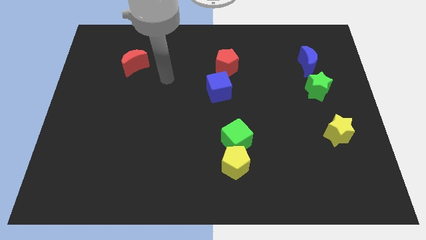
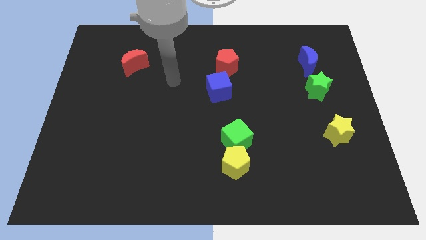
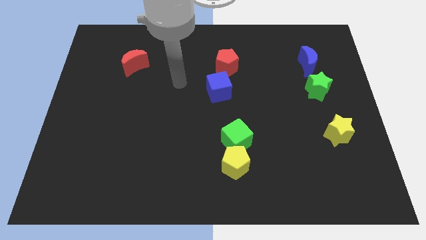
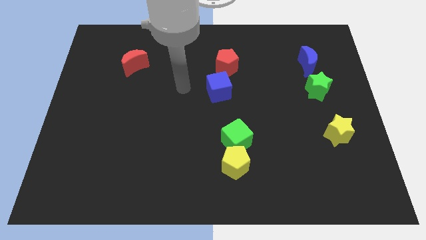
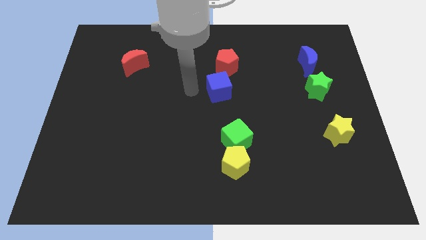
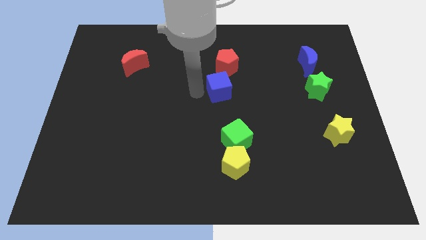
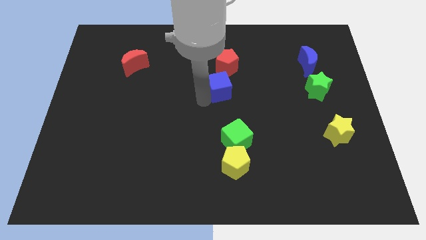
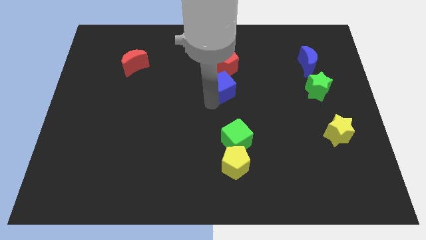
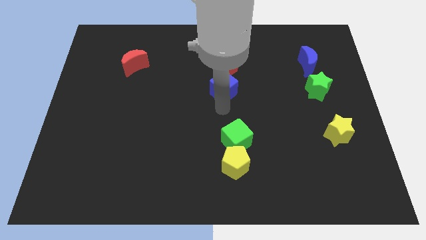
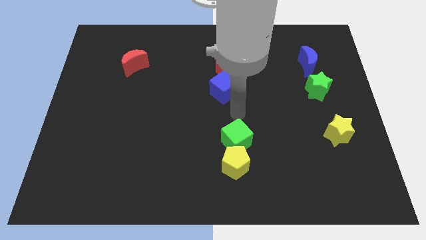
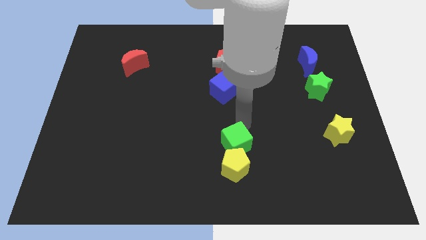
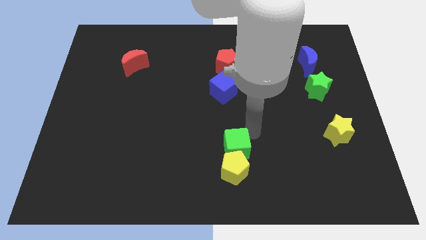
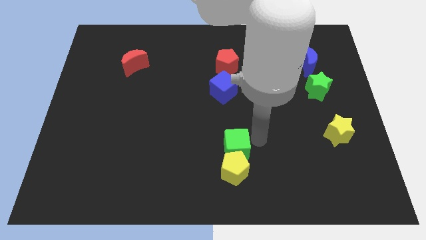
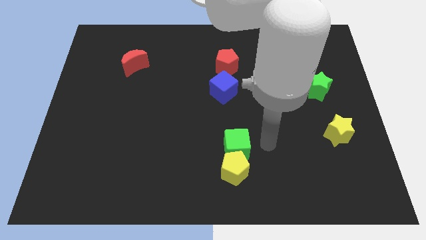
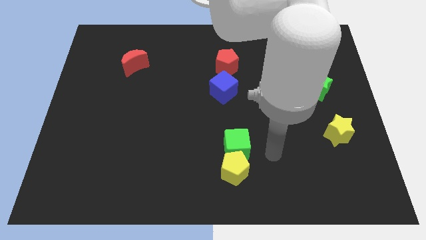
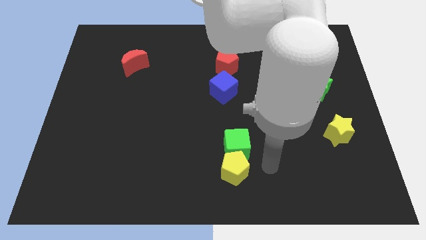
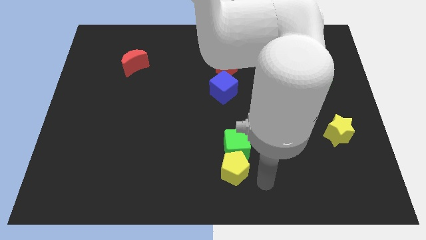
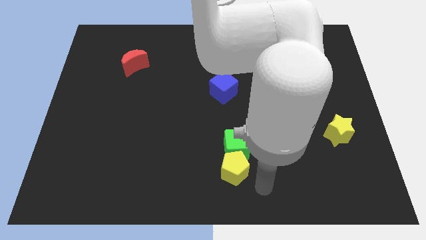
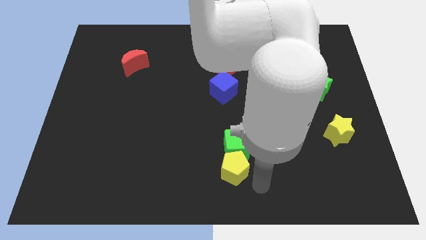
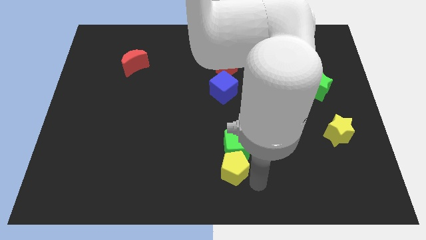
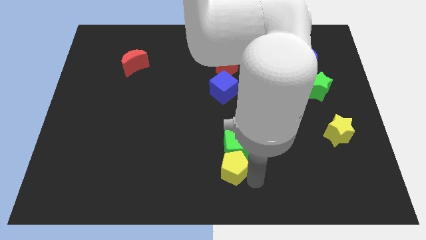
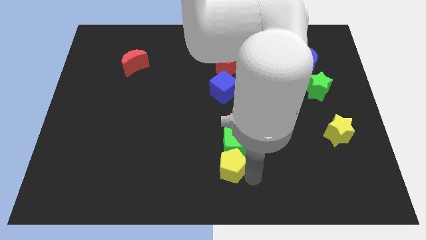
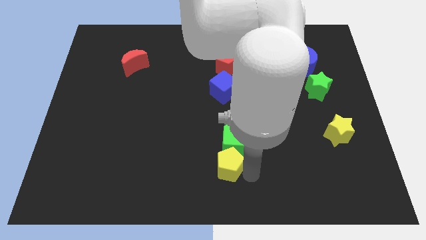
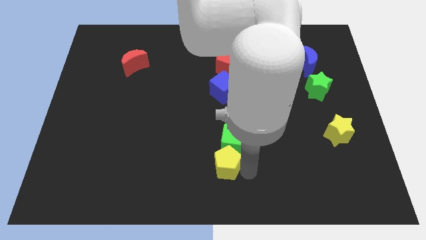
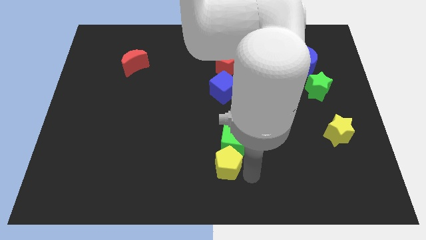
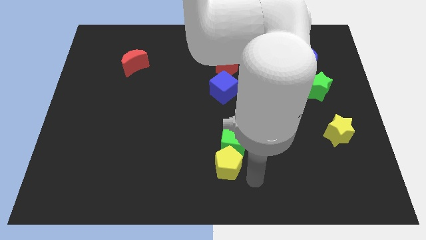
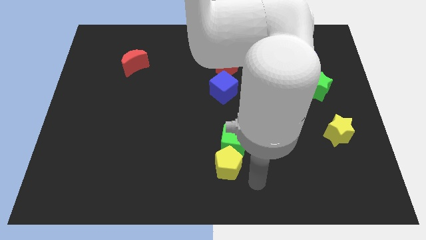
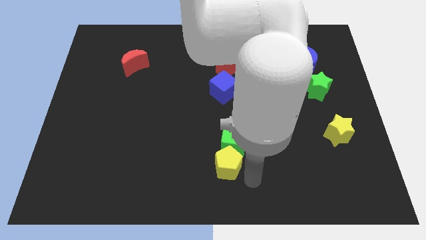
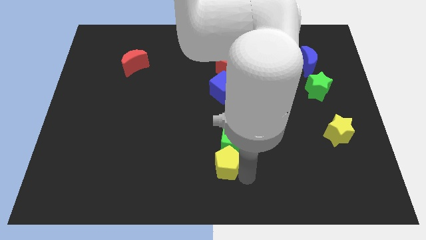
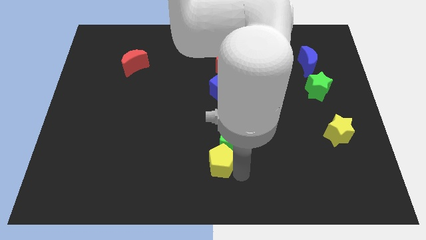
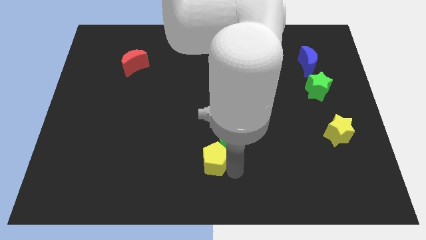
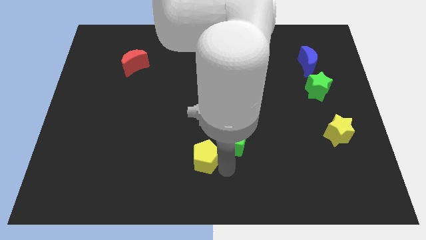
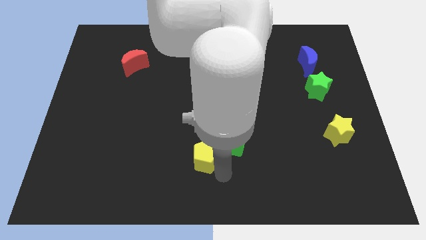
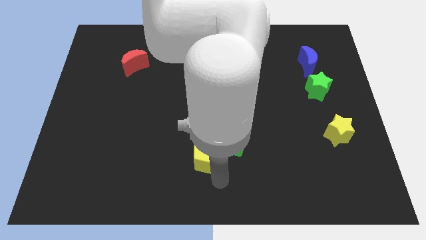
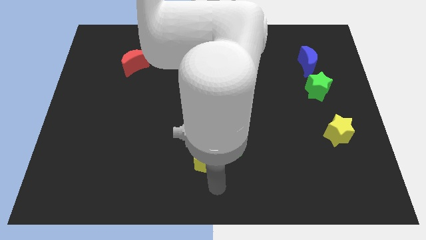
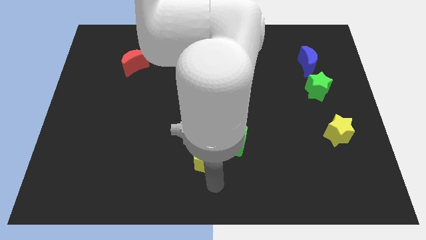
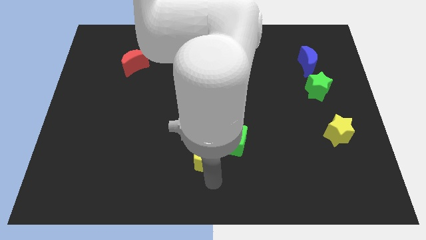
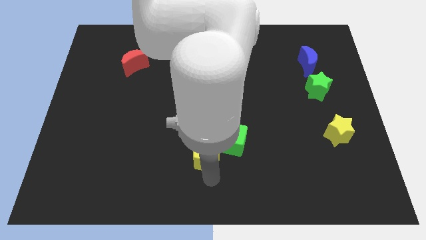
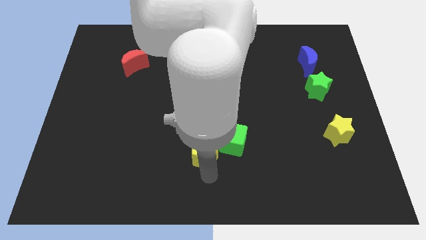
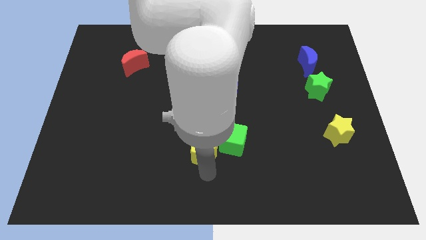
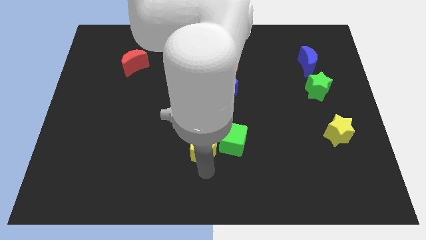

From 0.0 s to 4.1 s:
push the yellow pentagon up and left diagonally a little bit

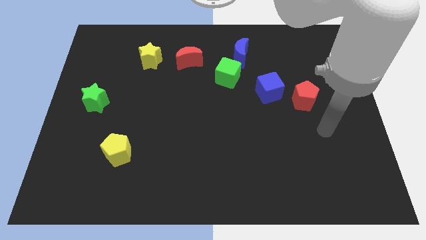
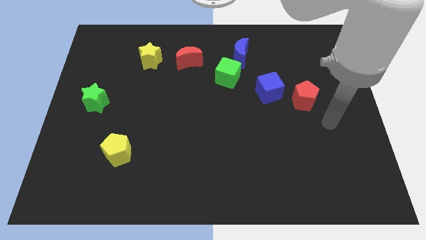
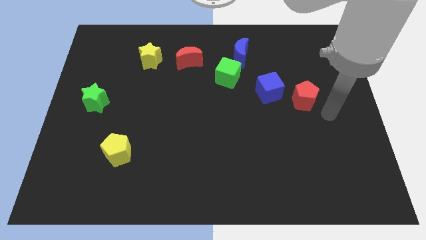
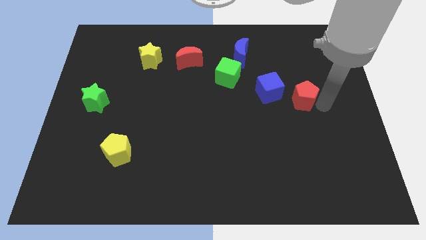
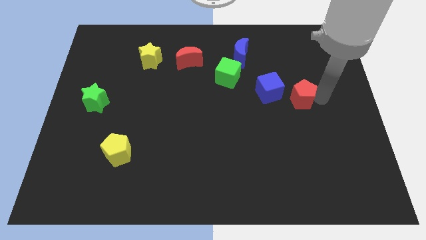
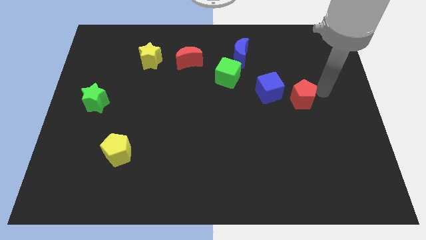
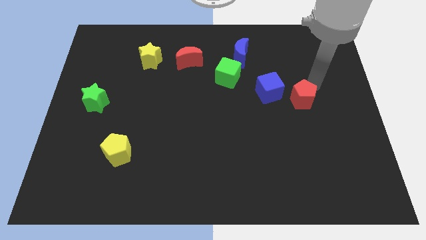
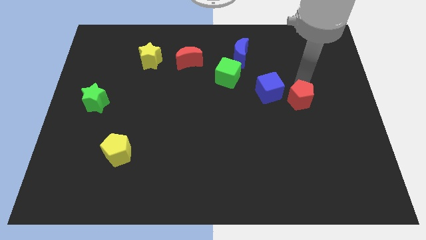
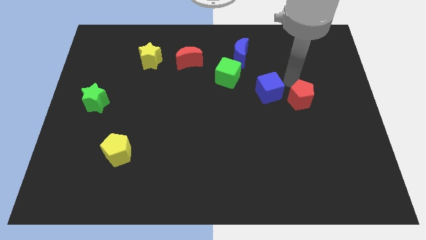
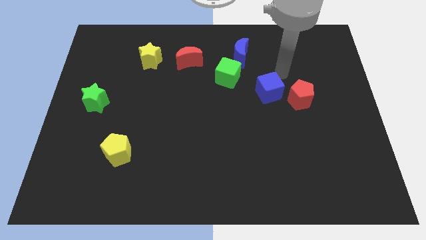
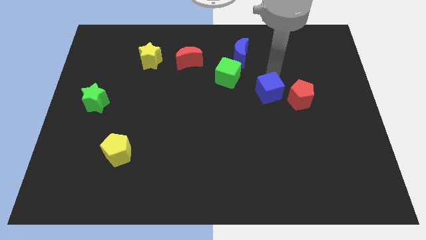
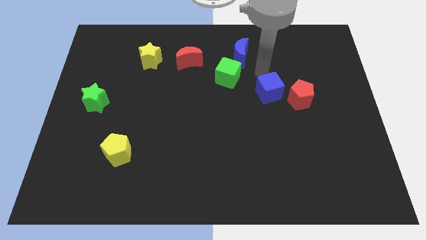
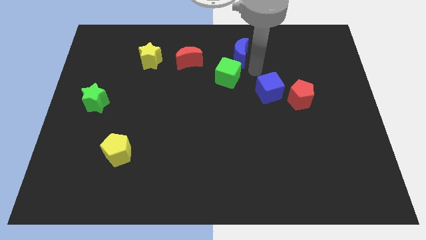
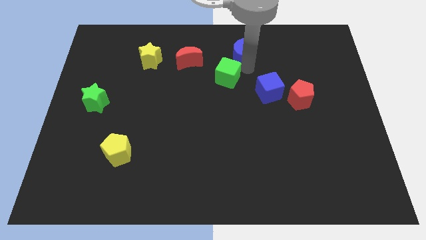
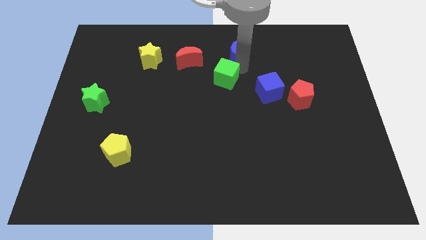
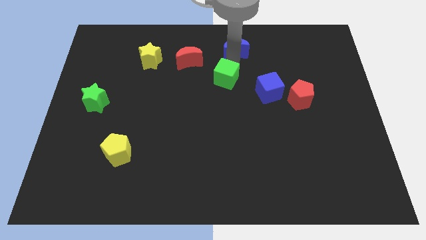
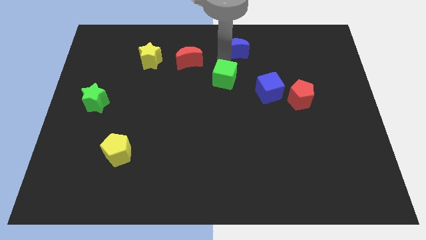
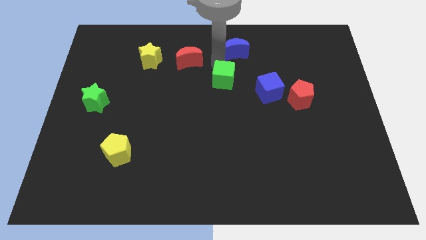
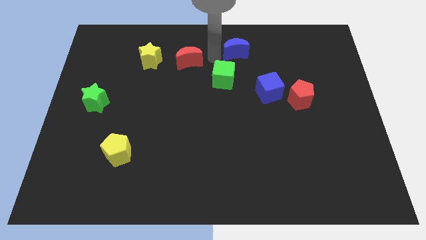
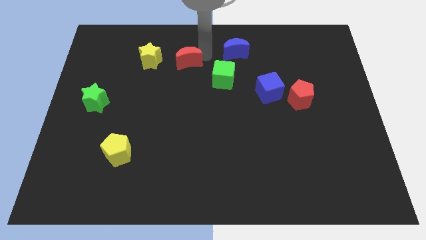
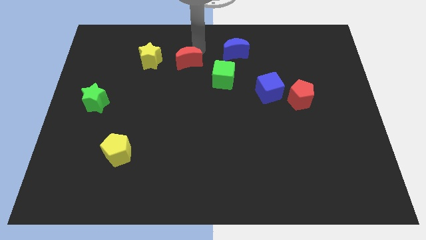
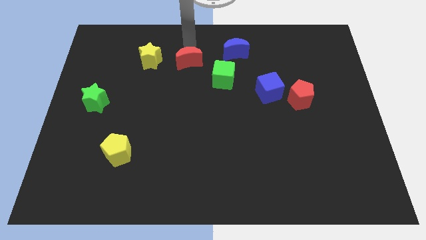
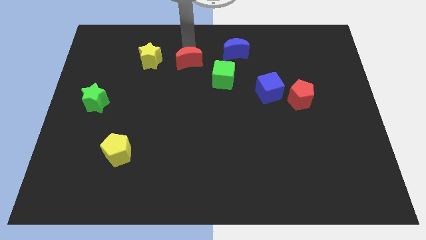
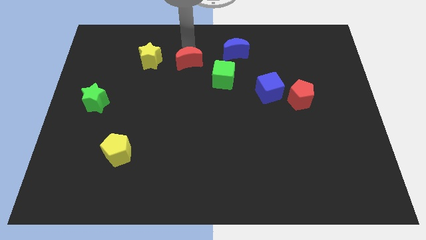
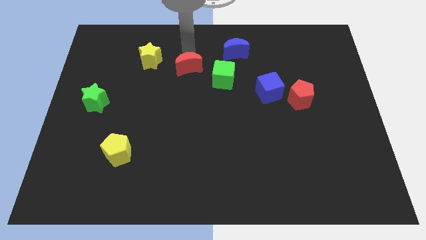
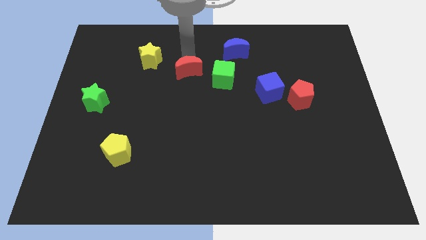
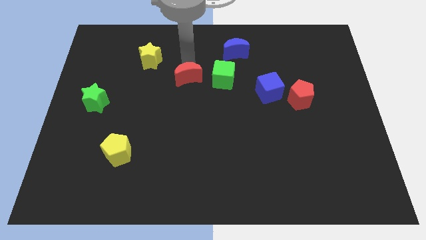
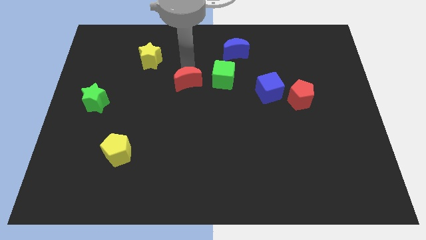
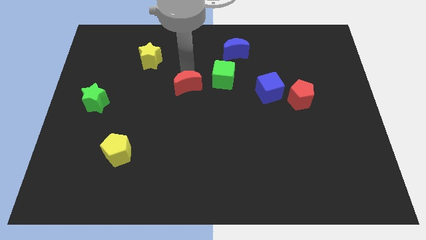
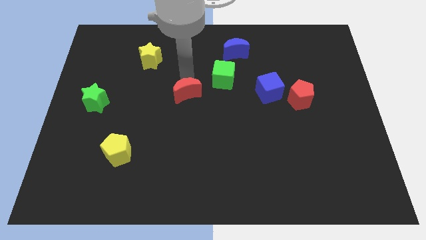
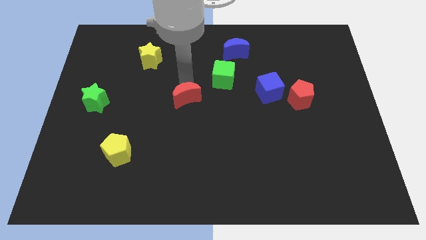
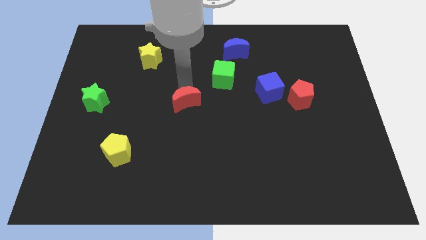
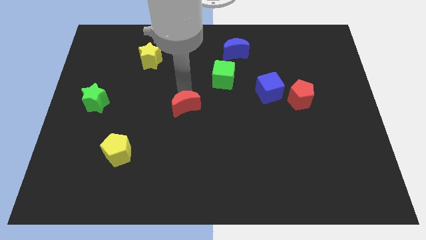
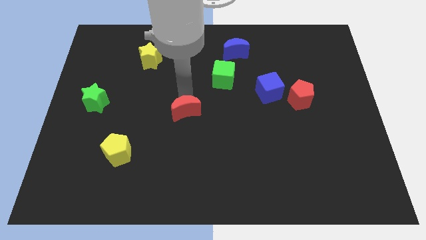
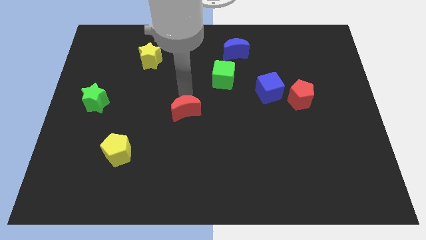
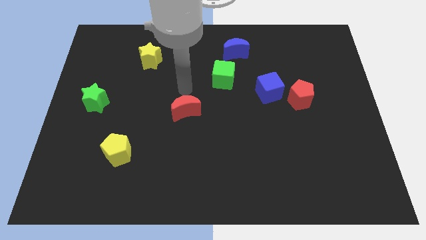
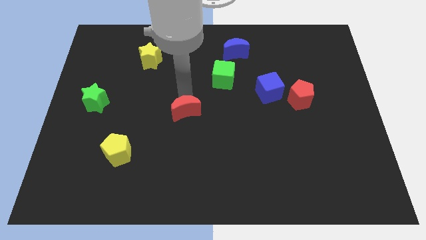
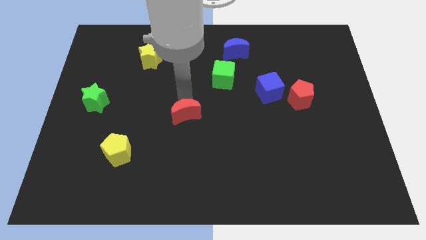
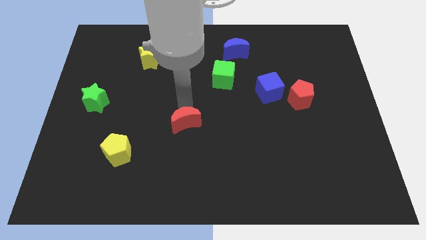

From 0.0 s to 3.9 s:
push the red moon downwards

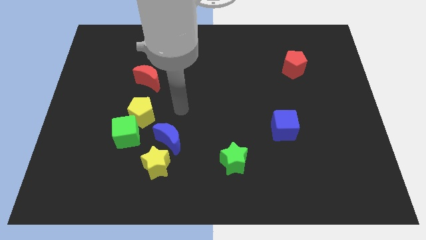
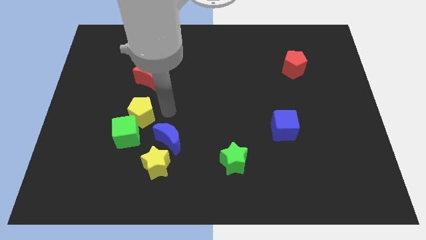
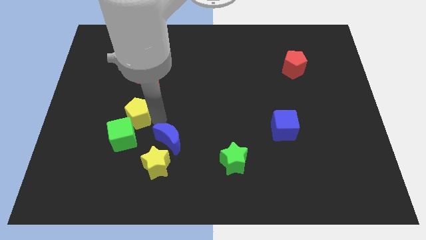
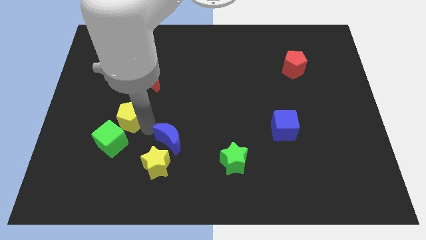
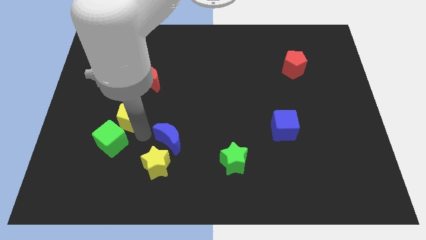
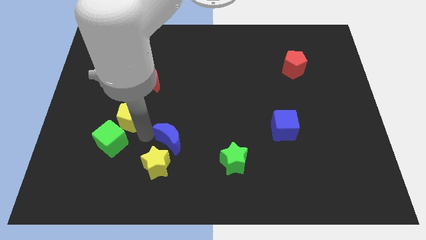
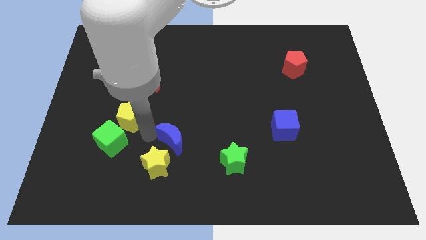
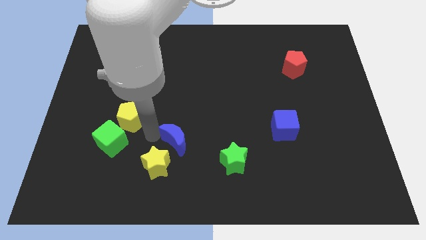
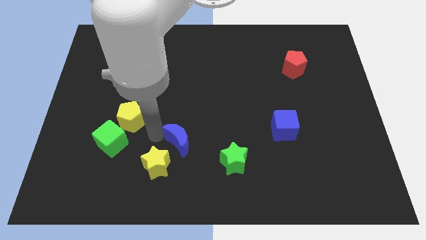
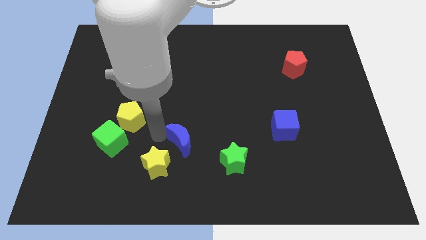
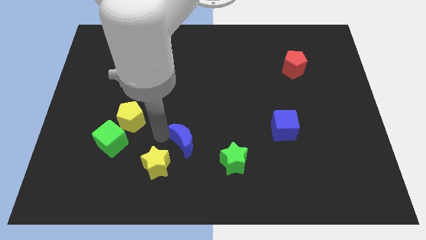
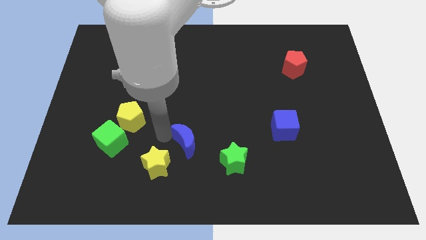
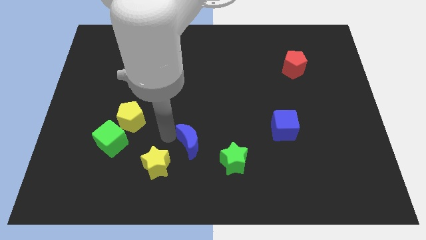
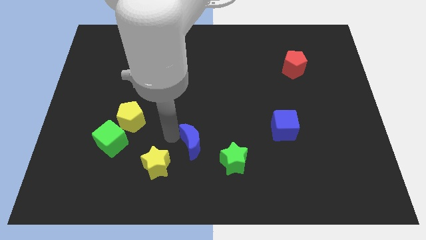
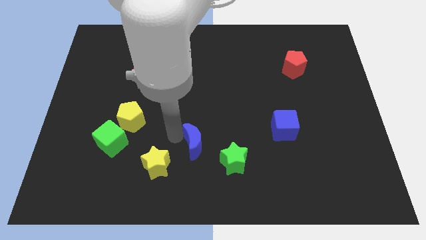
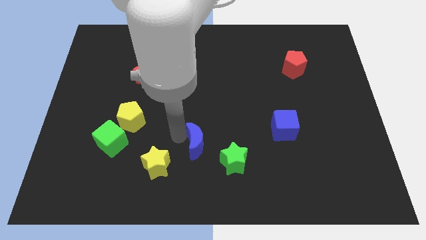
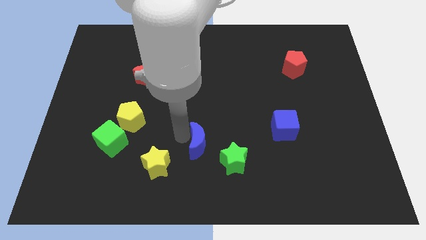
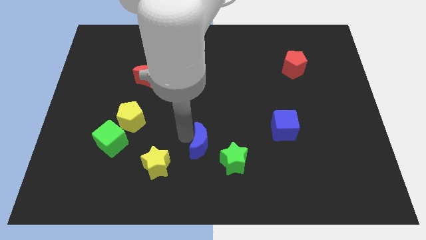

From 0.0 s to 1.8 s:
slightly slide the blue moon to the right
